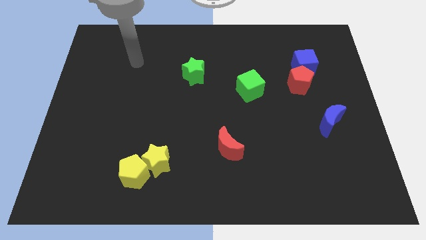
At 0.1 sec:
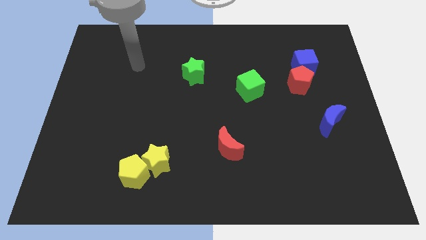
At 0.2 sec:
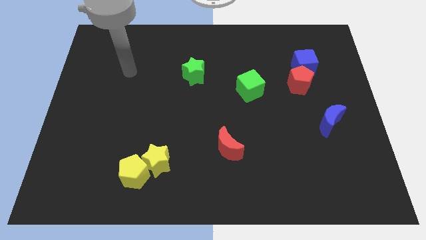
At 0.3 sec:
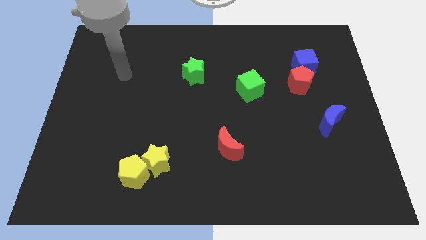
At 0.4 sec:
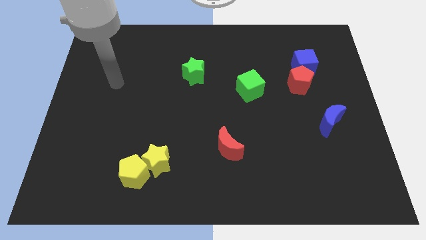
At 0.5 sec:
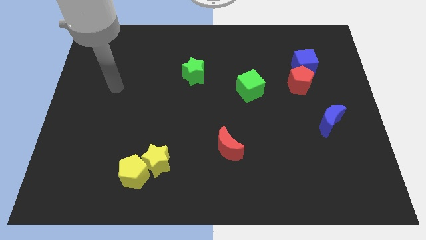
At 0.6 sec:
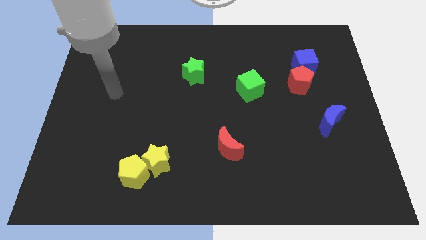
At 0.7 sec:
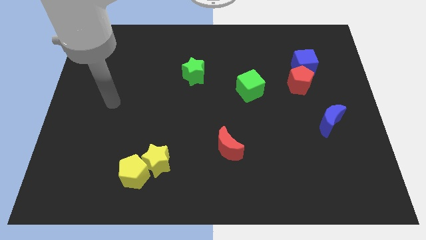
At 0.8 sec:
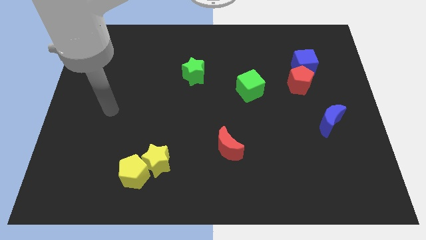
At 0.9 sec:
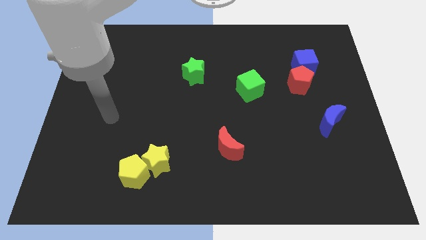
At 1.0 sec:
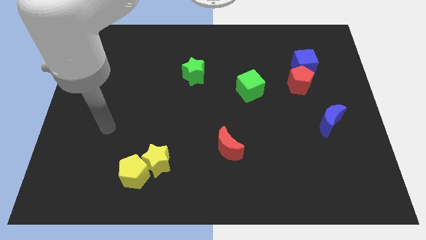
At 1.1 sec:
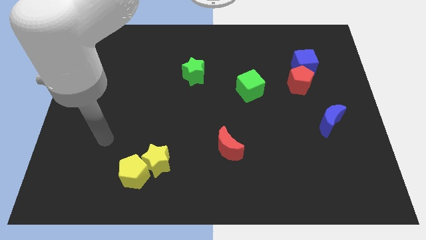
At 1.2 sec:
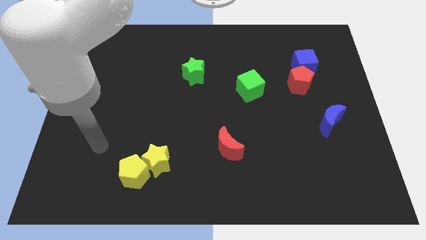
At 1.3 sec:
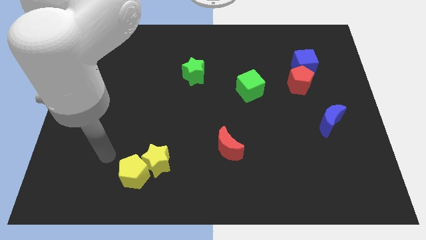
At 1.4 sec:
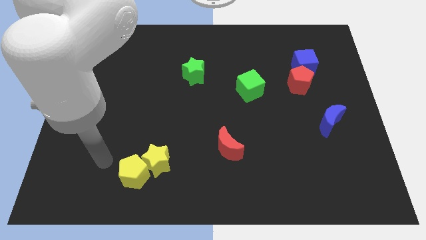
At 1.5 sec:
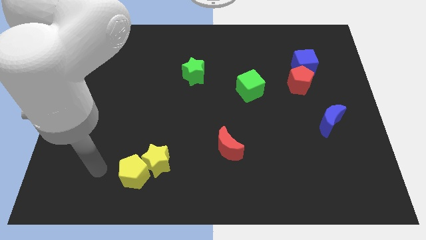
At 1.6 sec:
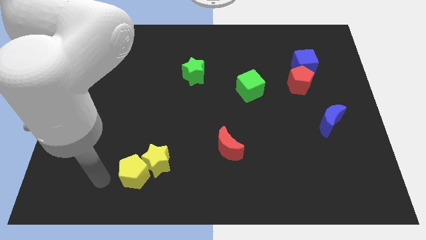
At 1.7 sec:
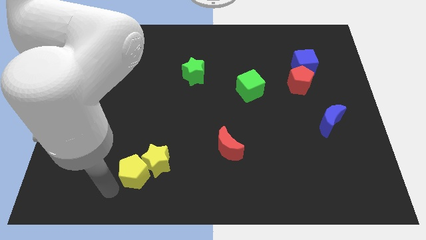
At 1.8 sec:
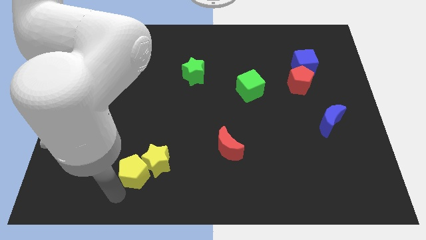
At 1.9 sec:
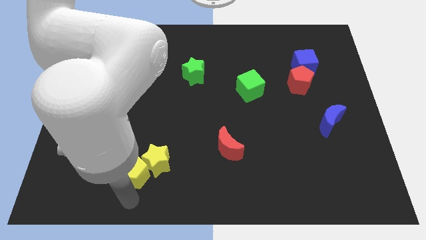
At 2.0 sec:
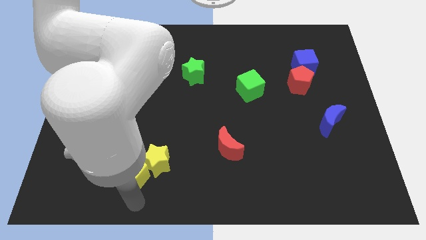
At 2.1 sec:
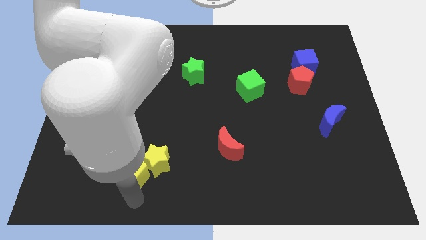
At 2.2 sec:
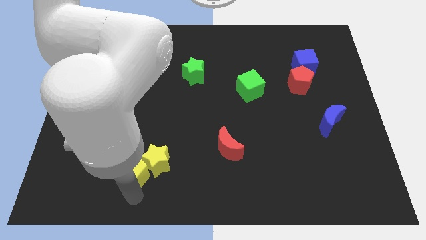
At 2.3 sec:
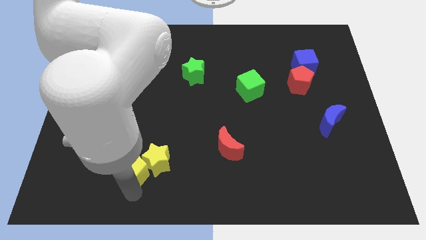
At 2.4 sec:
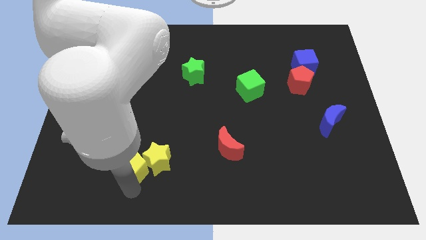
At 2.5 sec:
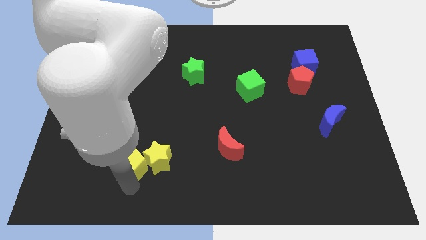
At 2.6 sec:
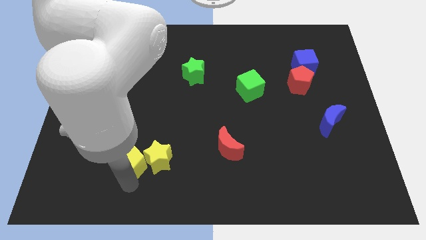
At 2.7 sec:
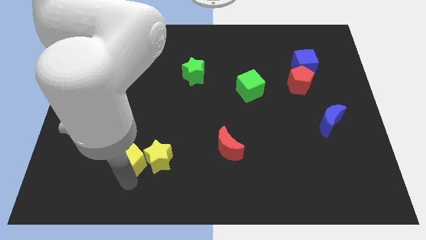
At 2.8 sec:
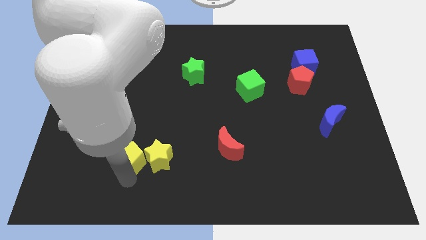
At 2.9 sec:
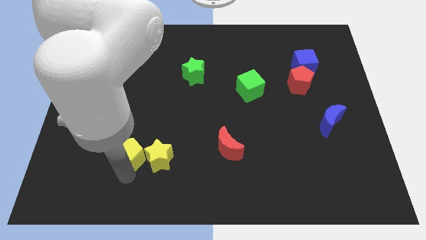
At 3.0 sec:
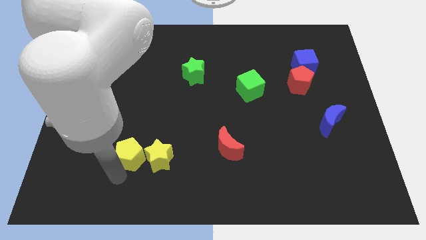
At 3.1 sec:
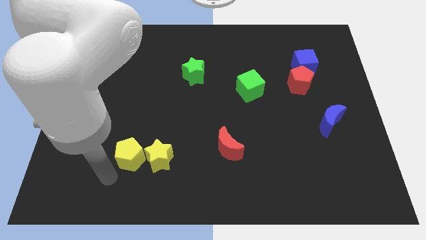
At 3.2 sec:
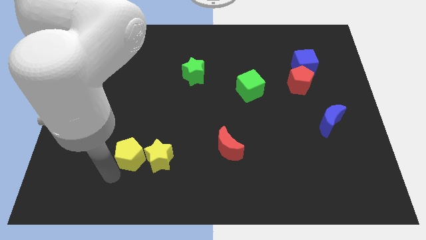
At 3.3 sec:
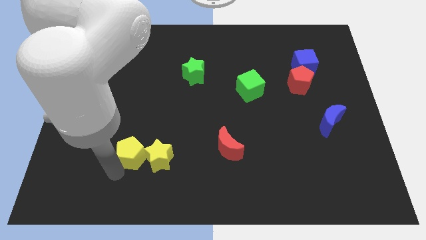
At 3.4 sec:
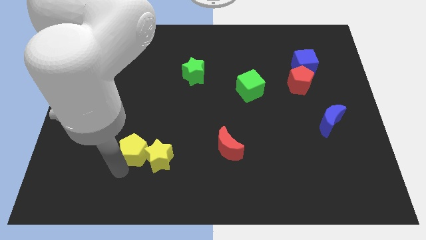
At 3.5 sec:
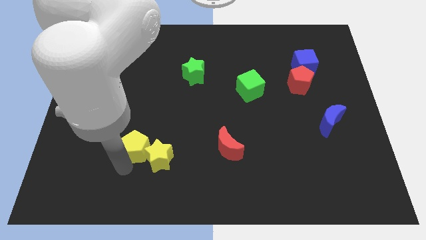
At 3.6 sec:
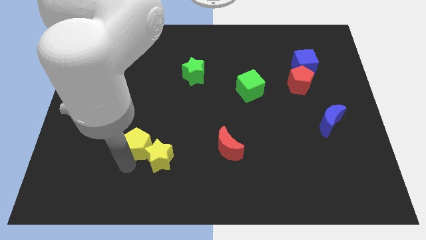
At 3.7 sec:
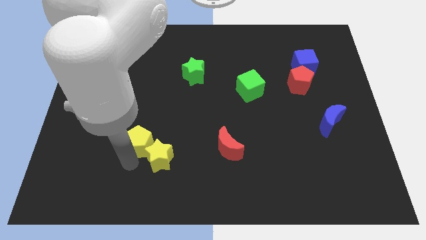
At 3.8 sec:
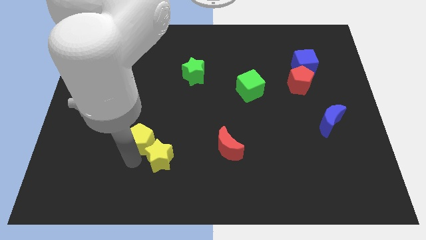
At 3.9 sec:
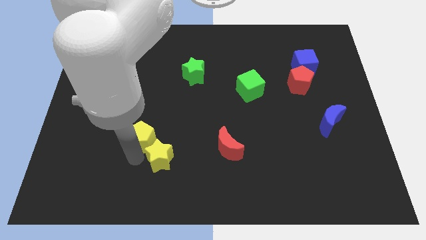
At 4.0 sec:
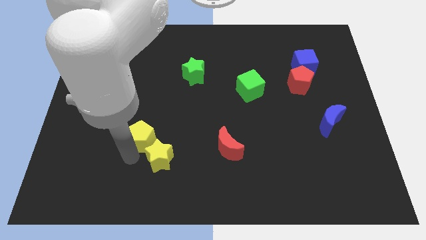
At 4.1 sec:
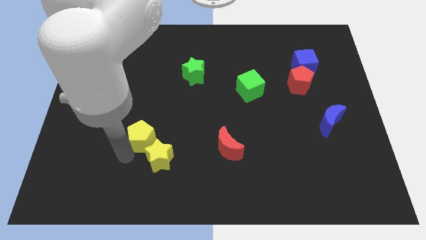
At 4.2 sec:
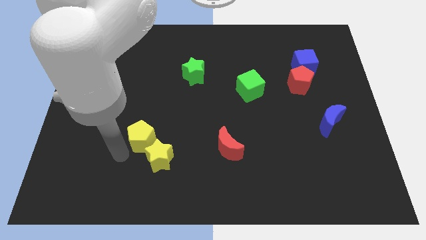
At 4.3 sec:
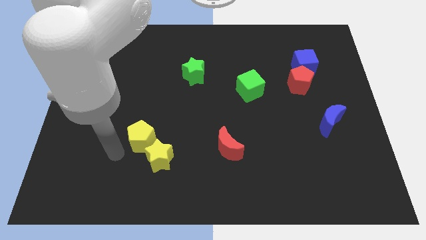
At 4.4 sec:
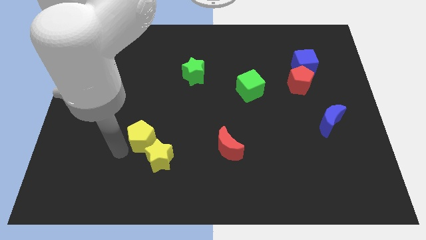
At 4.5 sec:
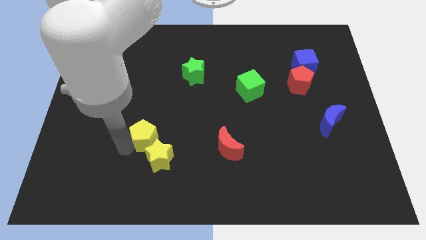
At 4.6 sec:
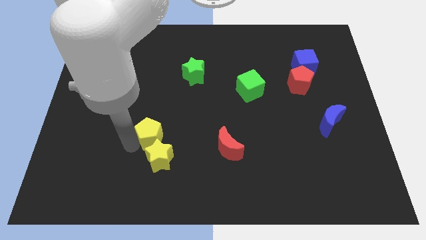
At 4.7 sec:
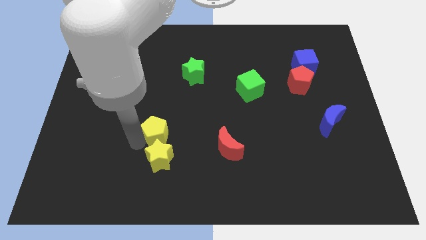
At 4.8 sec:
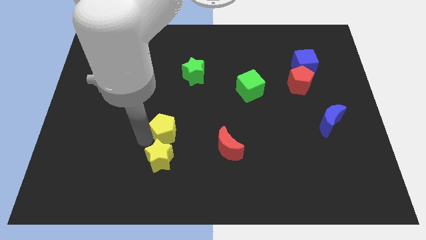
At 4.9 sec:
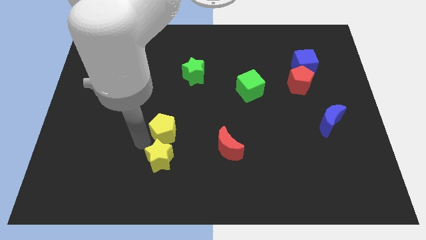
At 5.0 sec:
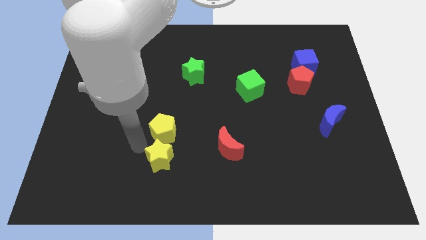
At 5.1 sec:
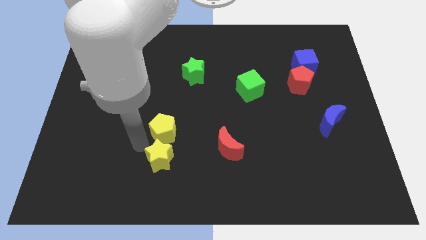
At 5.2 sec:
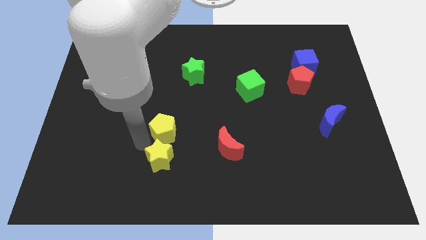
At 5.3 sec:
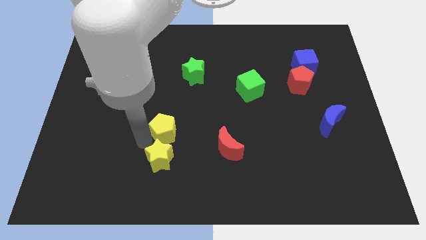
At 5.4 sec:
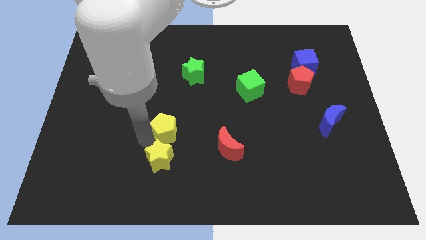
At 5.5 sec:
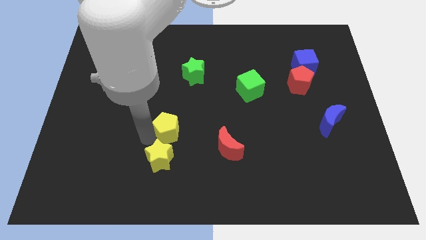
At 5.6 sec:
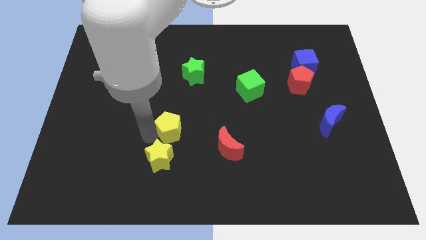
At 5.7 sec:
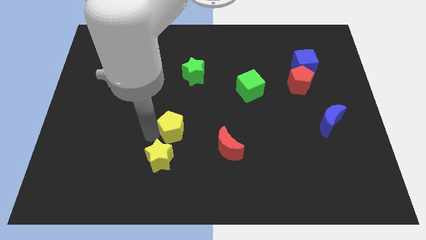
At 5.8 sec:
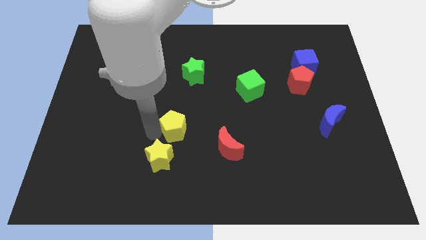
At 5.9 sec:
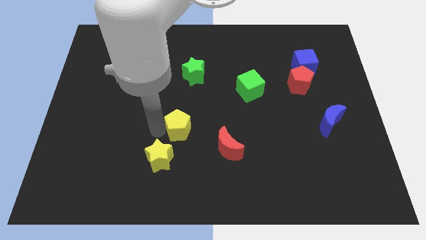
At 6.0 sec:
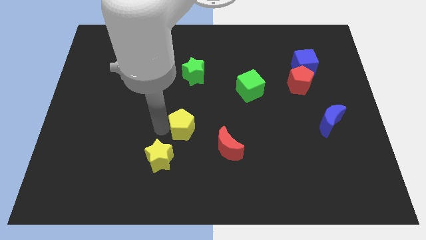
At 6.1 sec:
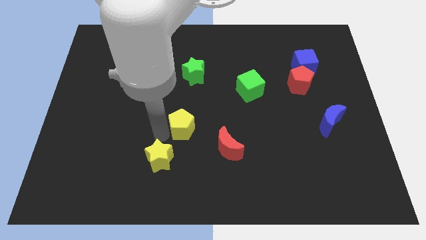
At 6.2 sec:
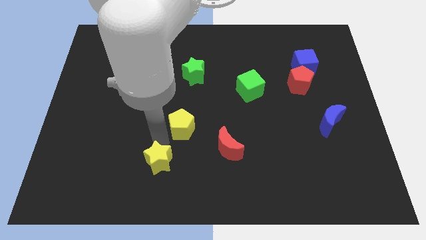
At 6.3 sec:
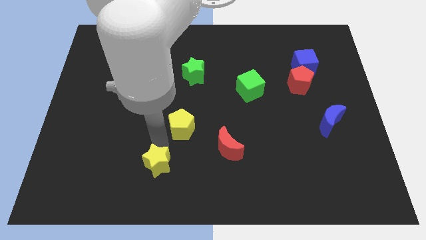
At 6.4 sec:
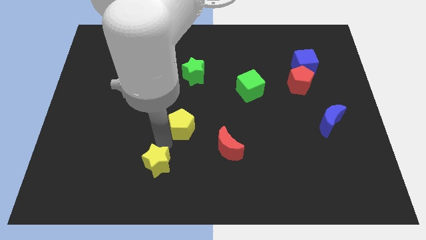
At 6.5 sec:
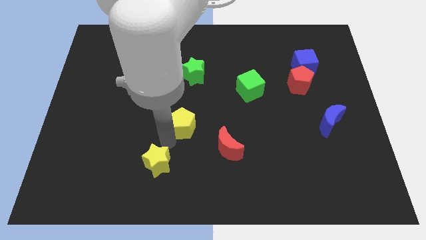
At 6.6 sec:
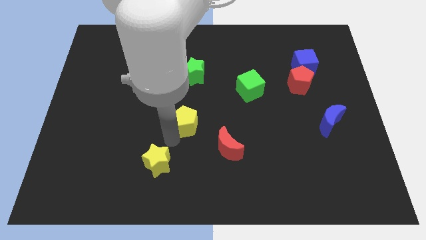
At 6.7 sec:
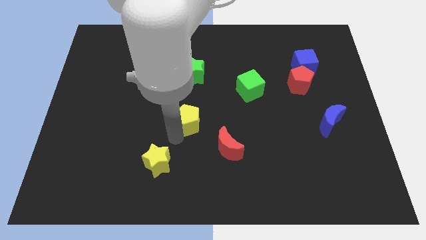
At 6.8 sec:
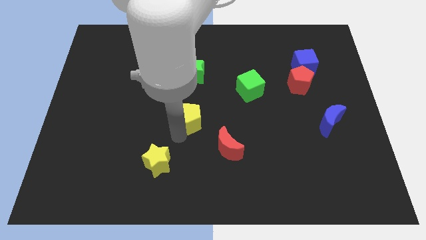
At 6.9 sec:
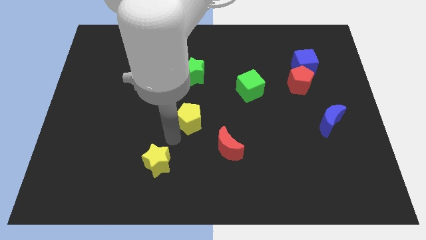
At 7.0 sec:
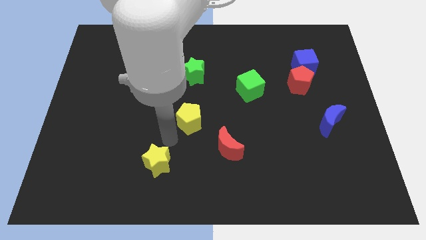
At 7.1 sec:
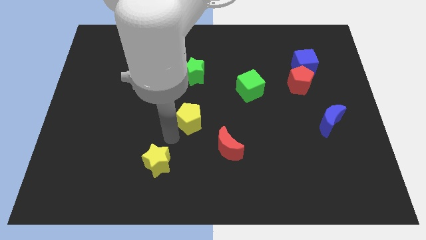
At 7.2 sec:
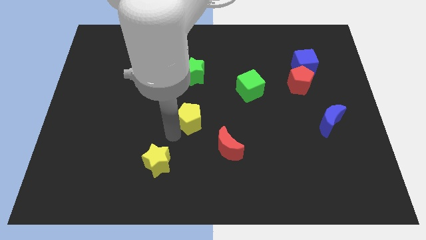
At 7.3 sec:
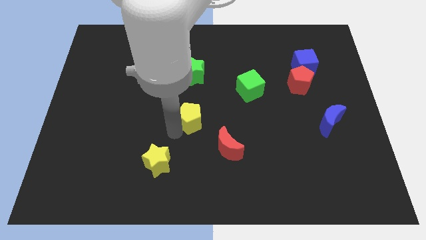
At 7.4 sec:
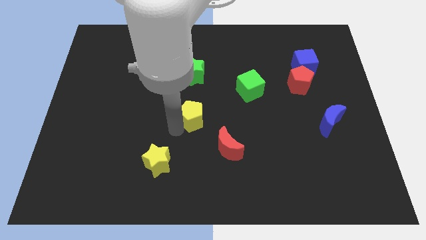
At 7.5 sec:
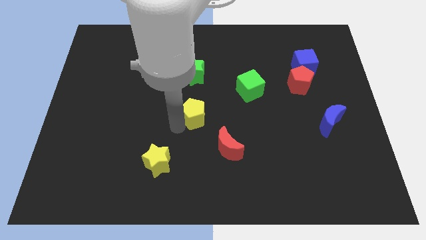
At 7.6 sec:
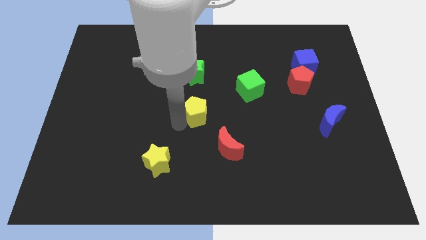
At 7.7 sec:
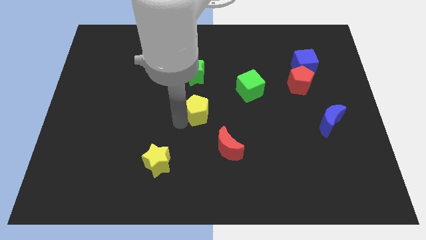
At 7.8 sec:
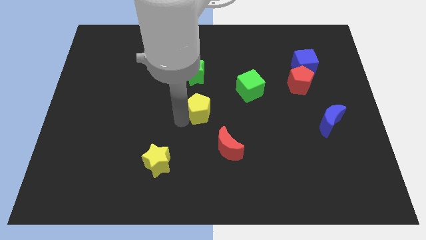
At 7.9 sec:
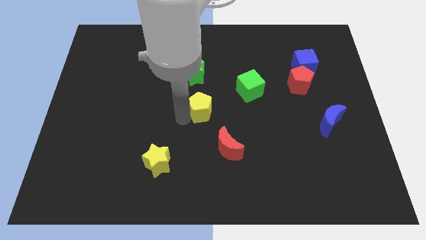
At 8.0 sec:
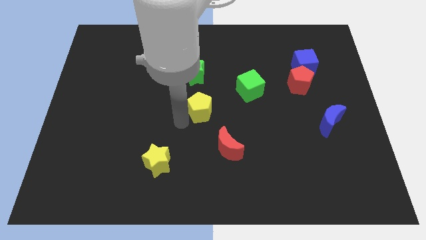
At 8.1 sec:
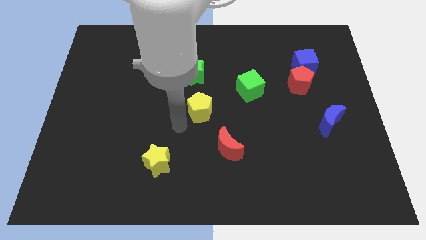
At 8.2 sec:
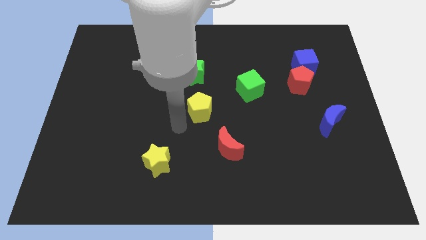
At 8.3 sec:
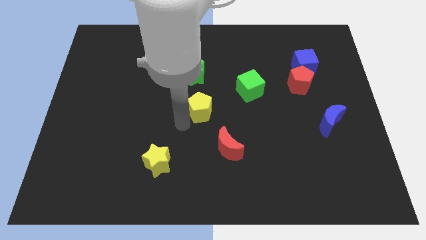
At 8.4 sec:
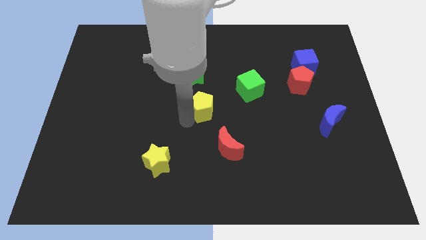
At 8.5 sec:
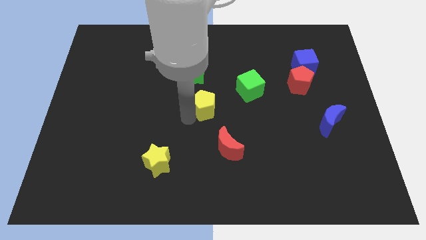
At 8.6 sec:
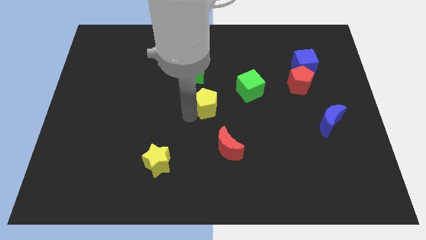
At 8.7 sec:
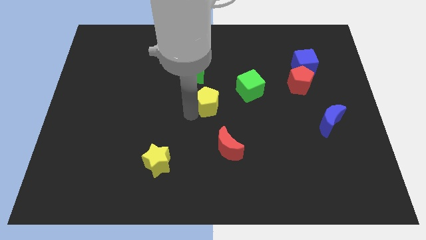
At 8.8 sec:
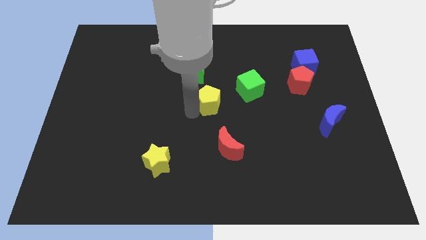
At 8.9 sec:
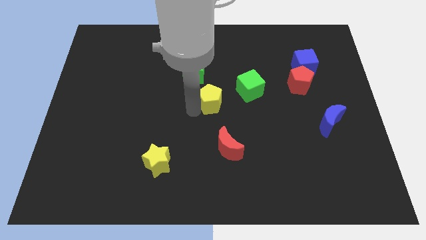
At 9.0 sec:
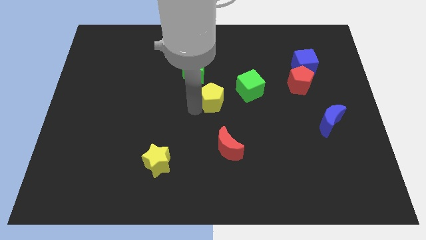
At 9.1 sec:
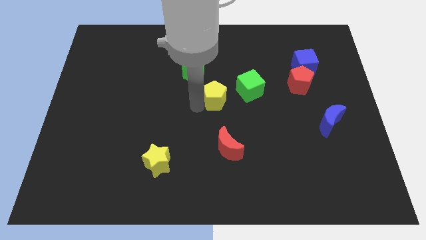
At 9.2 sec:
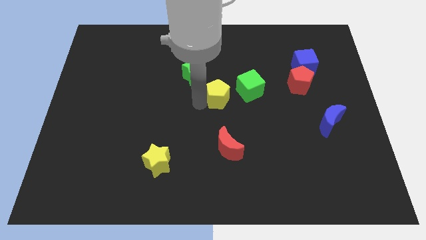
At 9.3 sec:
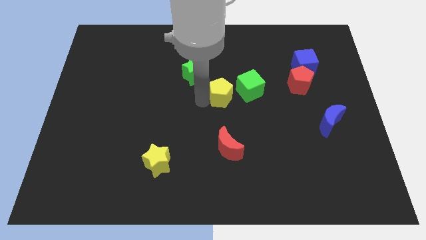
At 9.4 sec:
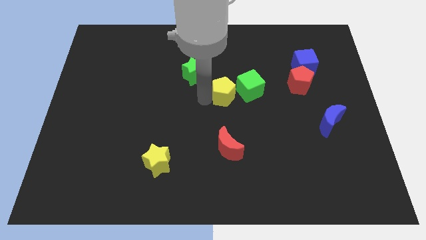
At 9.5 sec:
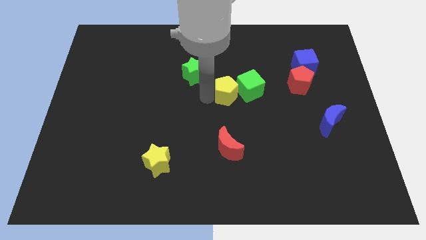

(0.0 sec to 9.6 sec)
put the yellow pentagon next to the green cube
